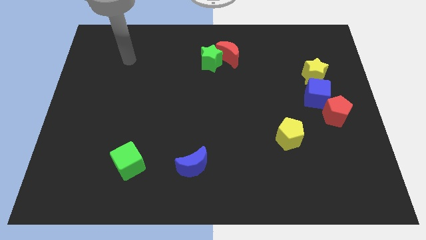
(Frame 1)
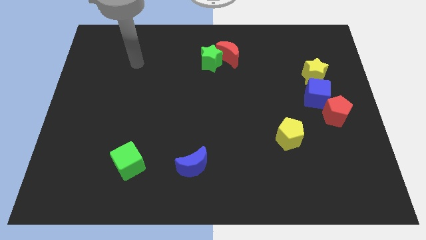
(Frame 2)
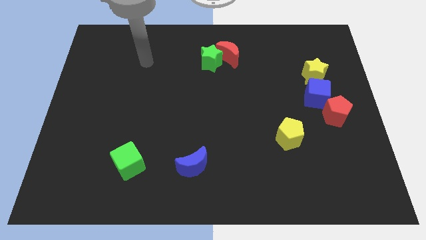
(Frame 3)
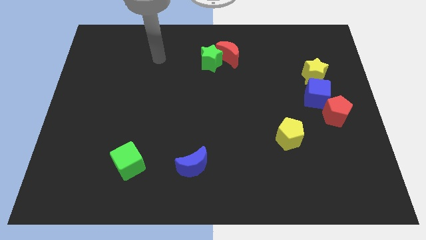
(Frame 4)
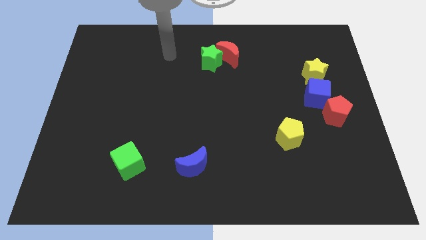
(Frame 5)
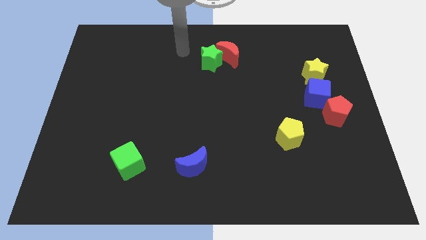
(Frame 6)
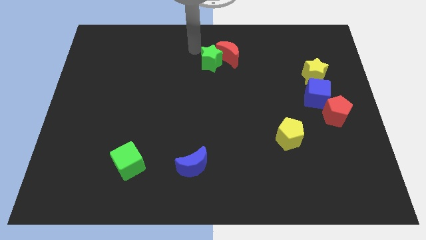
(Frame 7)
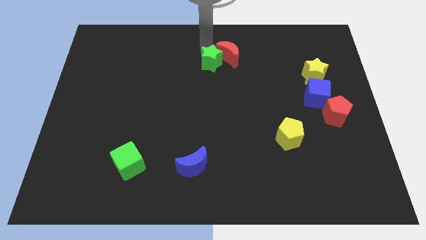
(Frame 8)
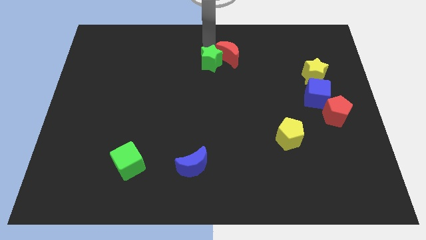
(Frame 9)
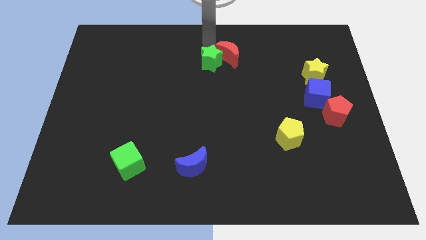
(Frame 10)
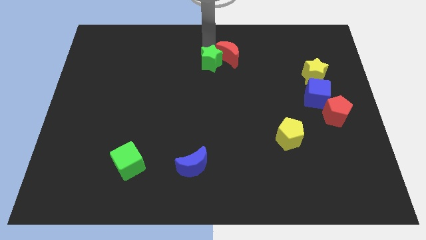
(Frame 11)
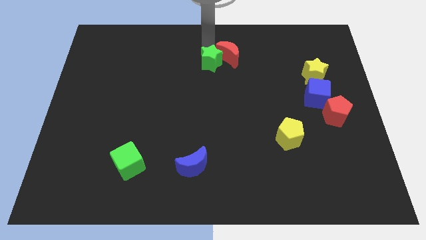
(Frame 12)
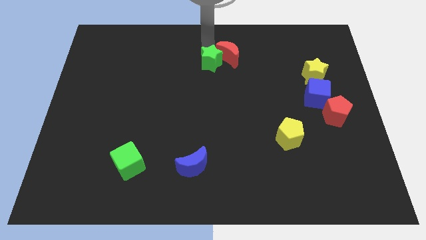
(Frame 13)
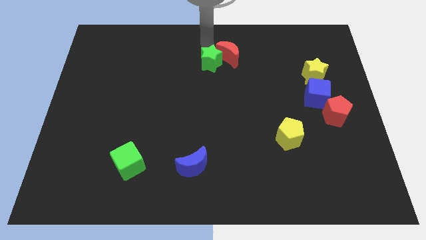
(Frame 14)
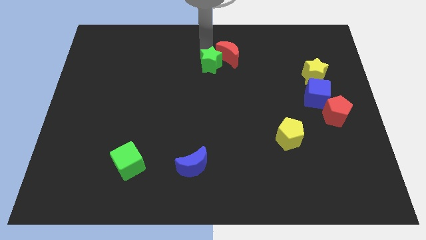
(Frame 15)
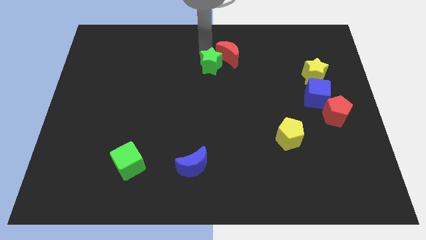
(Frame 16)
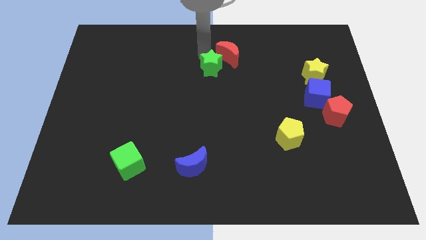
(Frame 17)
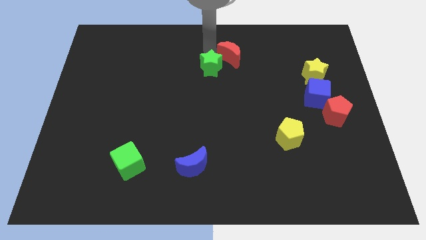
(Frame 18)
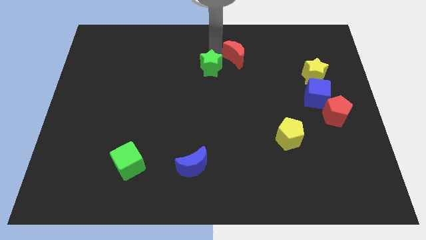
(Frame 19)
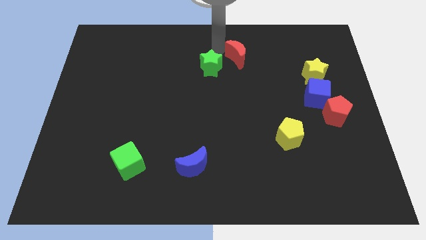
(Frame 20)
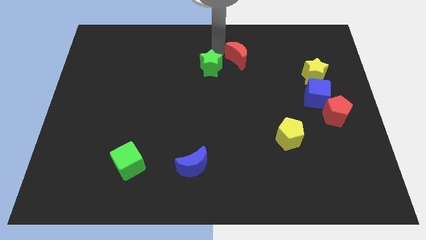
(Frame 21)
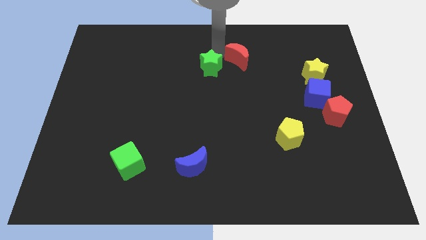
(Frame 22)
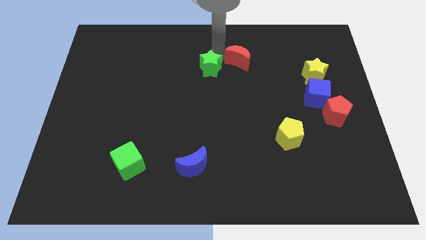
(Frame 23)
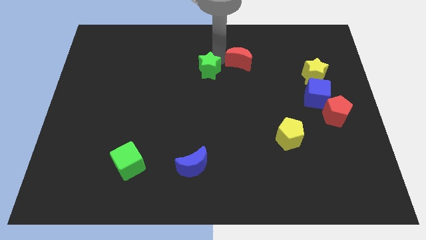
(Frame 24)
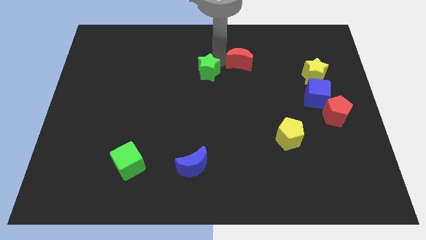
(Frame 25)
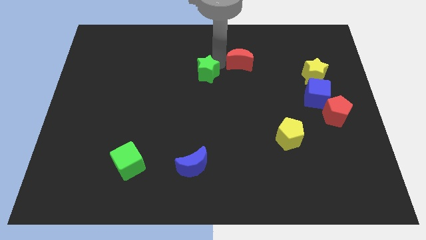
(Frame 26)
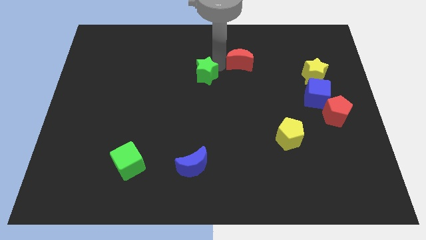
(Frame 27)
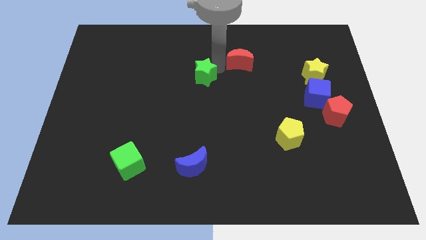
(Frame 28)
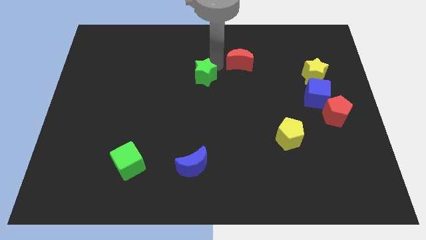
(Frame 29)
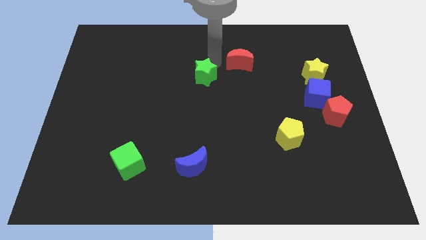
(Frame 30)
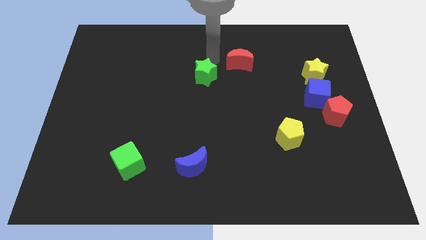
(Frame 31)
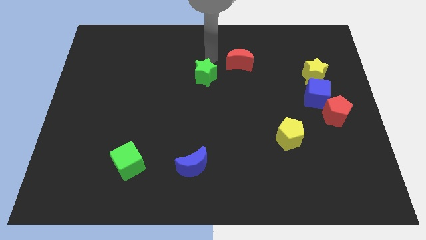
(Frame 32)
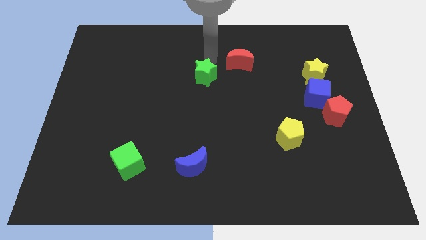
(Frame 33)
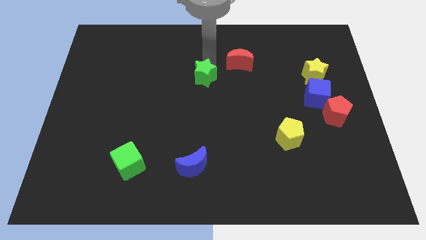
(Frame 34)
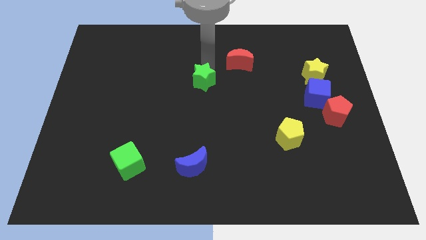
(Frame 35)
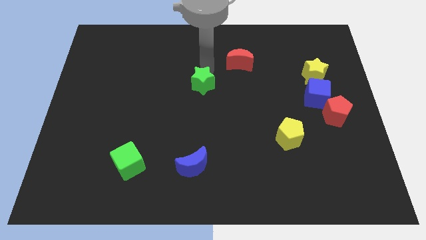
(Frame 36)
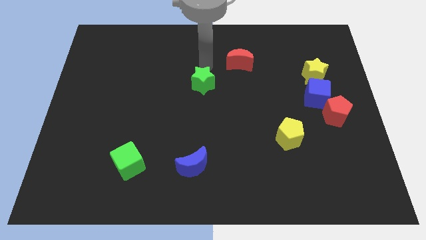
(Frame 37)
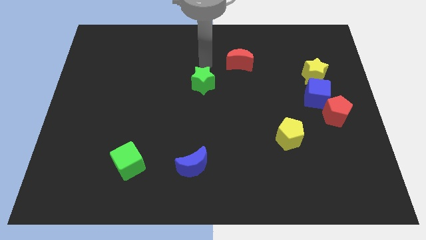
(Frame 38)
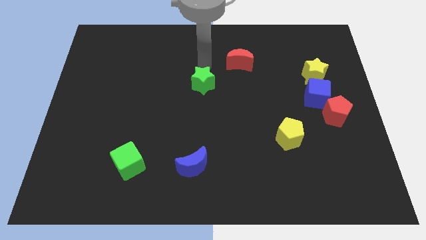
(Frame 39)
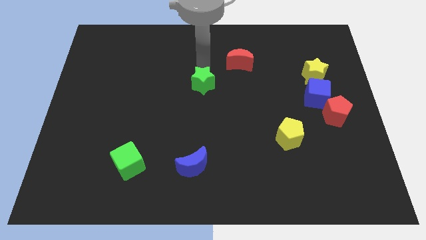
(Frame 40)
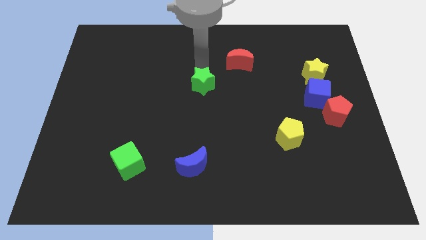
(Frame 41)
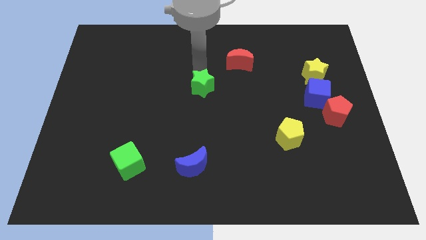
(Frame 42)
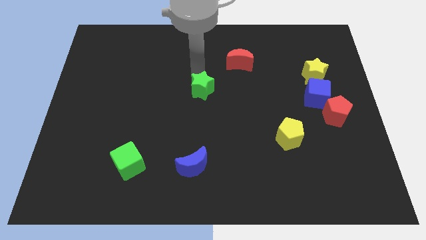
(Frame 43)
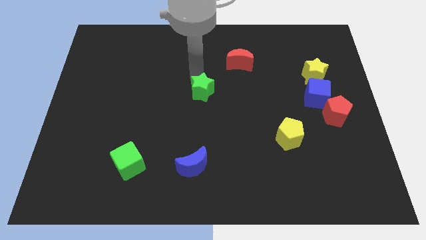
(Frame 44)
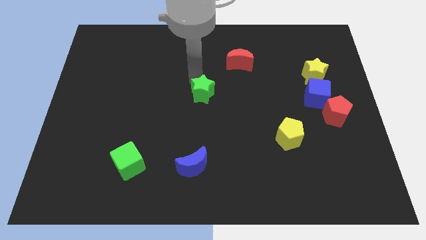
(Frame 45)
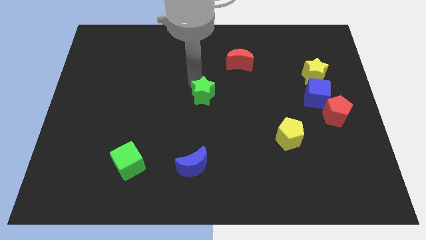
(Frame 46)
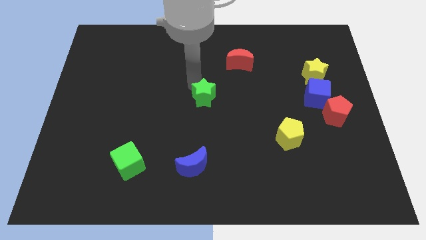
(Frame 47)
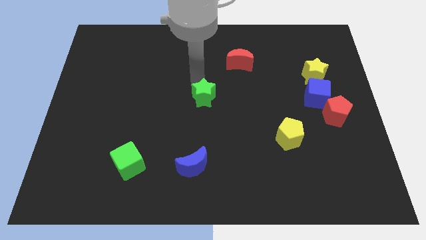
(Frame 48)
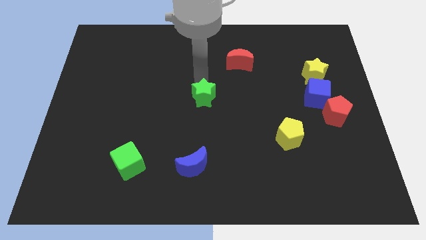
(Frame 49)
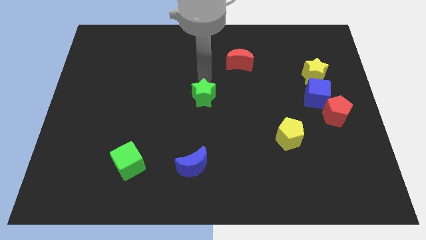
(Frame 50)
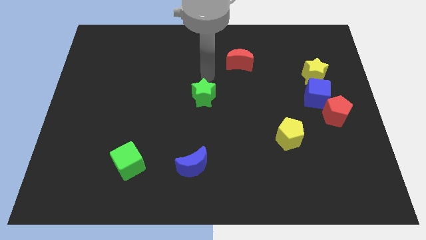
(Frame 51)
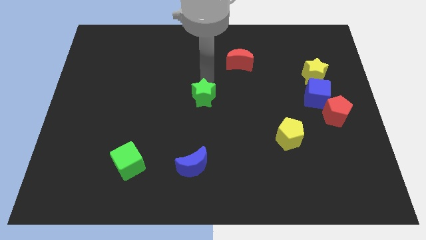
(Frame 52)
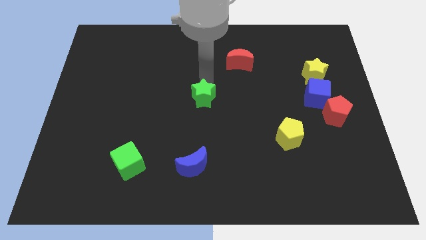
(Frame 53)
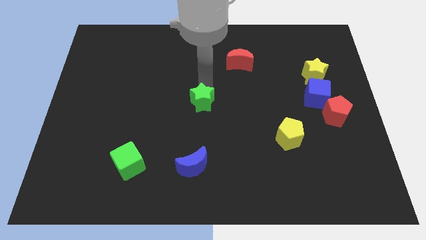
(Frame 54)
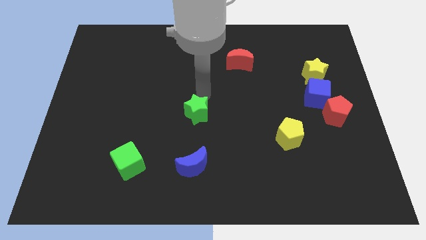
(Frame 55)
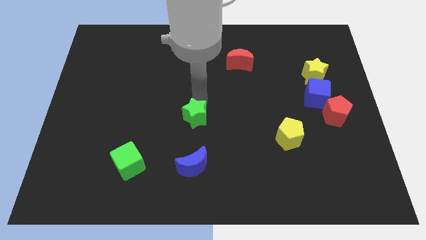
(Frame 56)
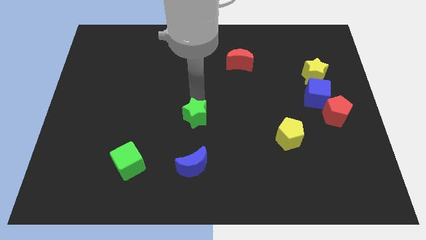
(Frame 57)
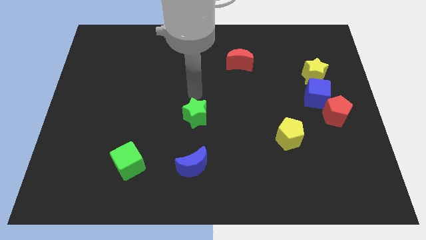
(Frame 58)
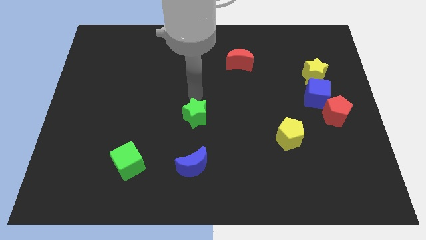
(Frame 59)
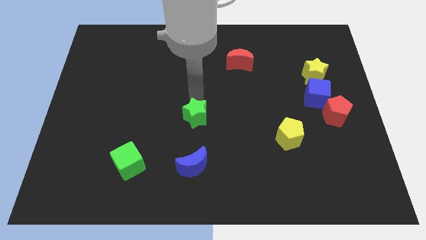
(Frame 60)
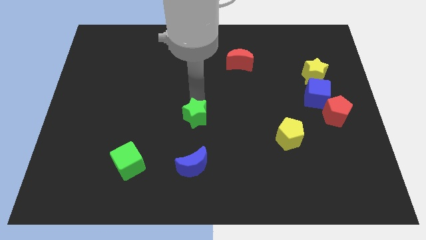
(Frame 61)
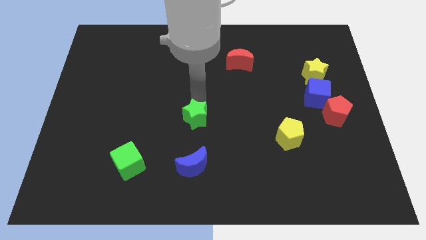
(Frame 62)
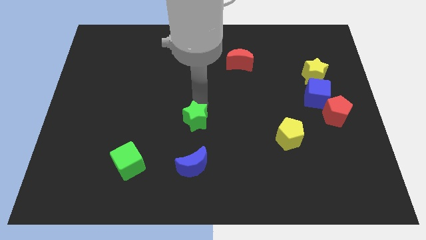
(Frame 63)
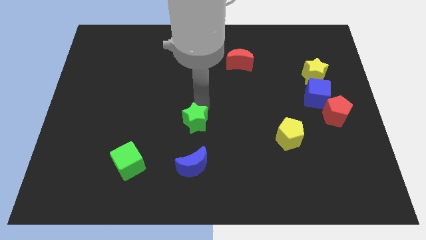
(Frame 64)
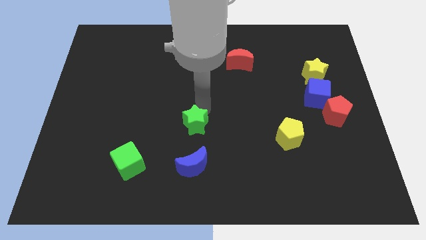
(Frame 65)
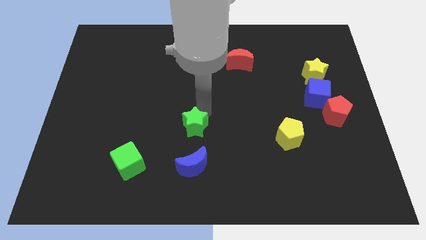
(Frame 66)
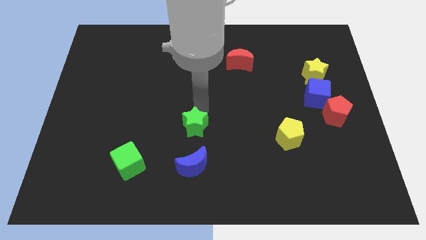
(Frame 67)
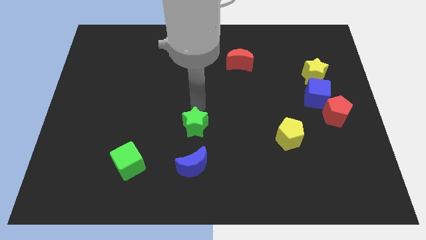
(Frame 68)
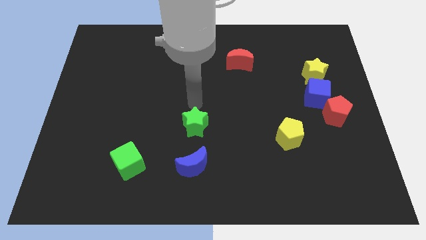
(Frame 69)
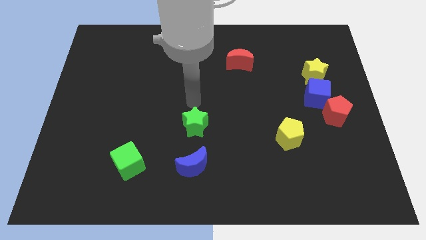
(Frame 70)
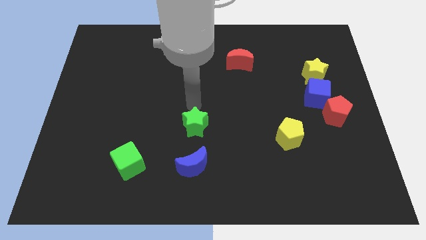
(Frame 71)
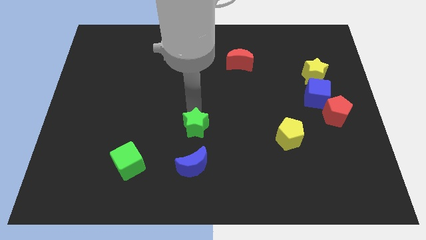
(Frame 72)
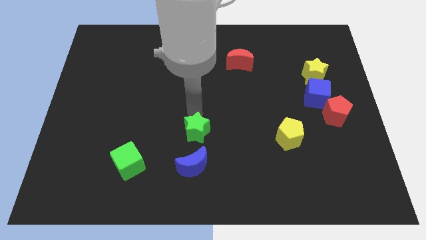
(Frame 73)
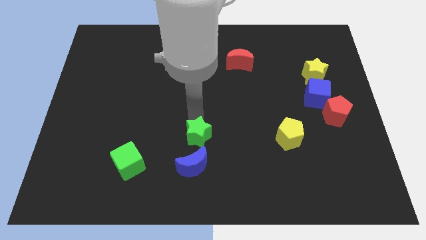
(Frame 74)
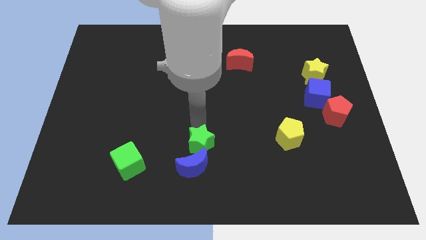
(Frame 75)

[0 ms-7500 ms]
slide the green star towards the blue moon
